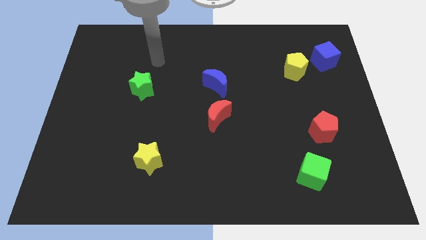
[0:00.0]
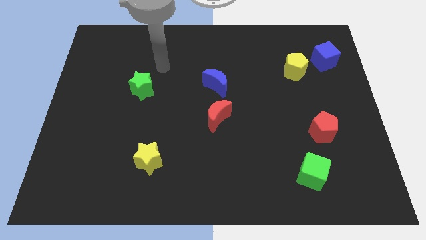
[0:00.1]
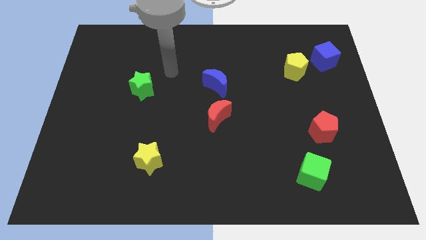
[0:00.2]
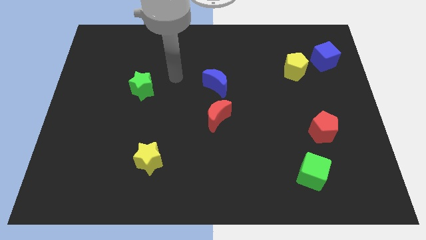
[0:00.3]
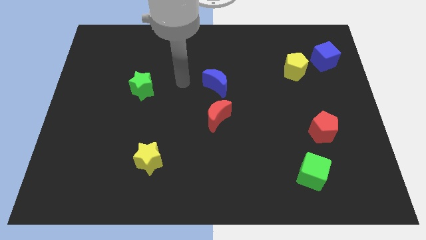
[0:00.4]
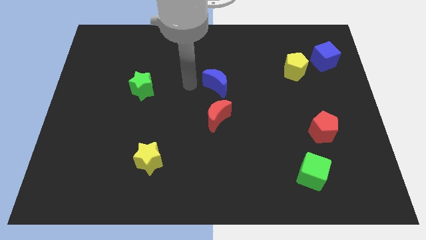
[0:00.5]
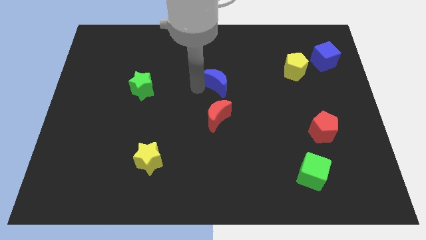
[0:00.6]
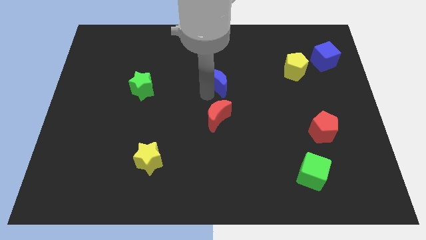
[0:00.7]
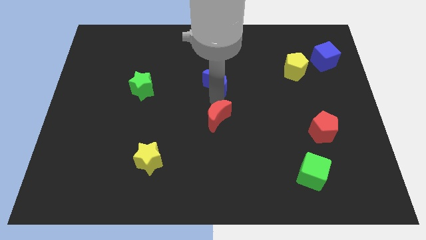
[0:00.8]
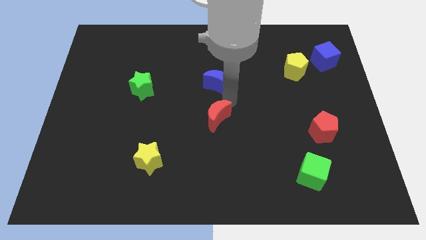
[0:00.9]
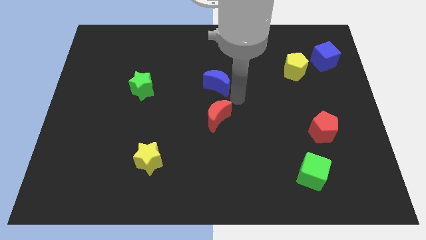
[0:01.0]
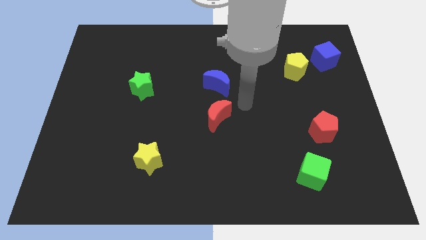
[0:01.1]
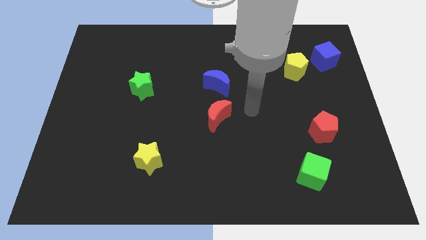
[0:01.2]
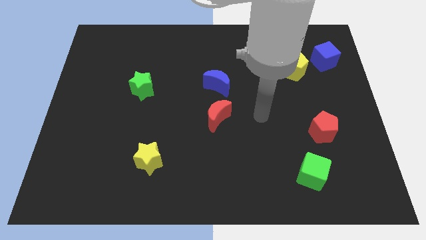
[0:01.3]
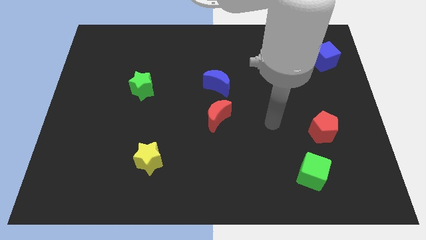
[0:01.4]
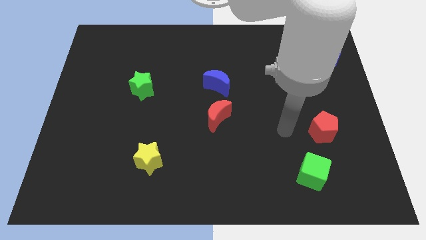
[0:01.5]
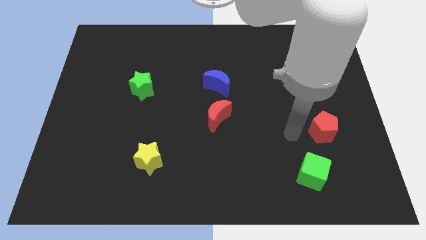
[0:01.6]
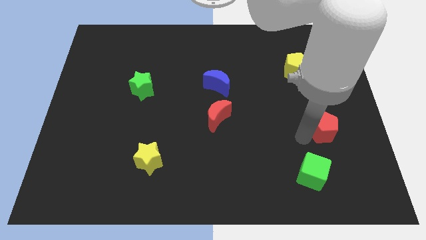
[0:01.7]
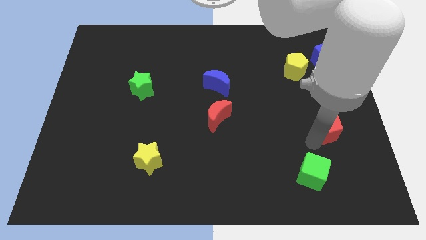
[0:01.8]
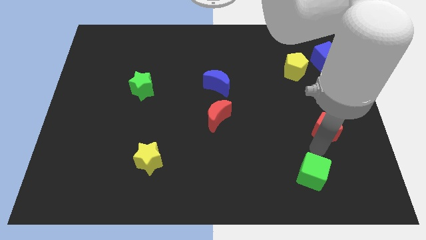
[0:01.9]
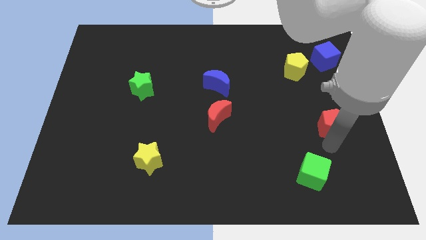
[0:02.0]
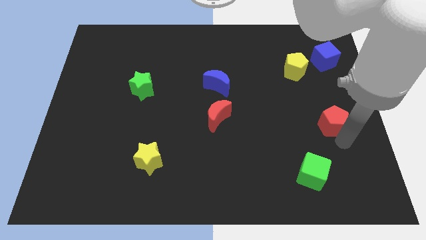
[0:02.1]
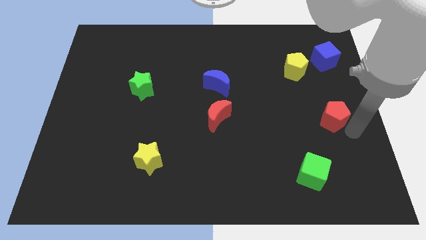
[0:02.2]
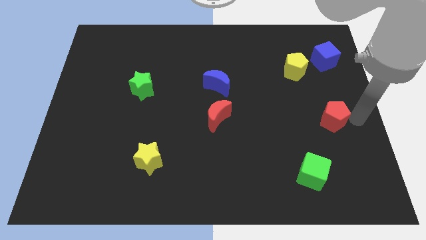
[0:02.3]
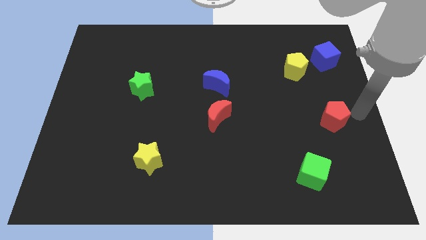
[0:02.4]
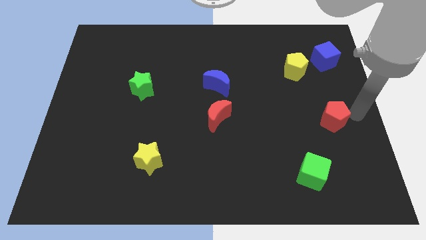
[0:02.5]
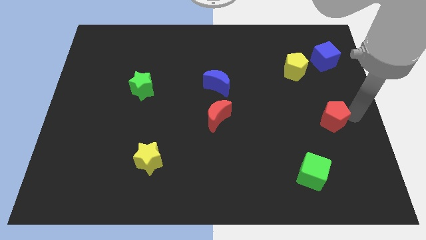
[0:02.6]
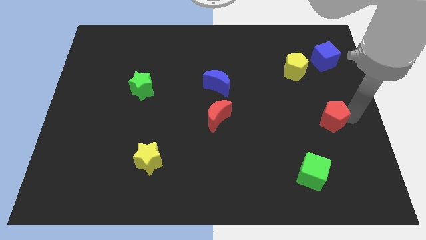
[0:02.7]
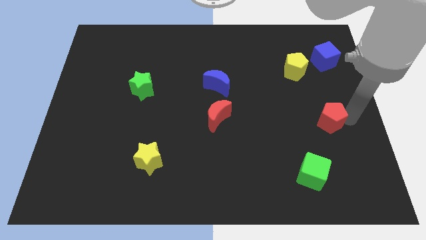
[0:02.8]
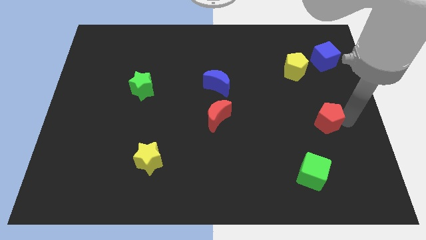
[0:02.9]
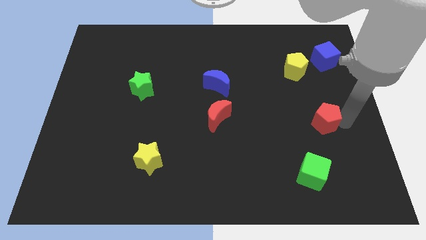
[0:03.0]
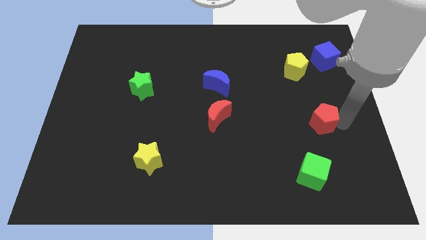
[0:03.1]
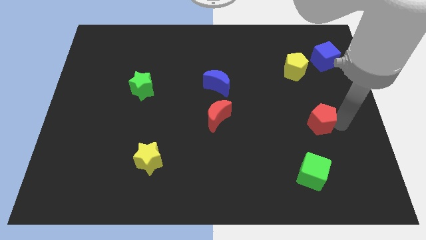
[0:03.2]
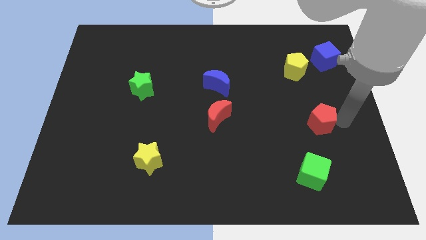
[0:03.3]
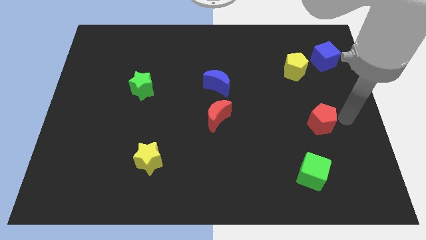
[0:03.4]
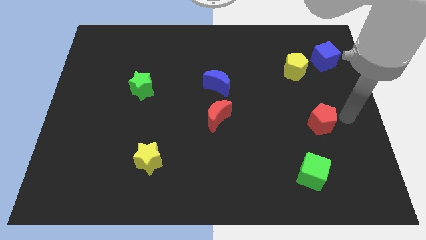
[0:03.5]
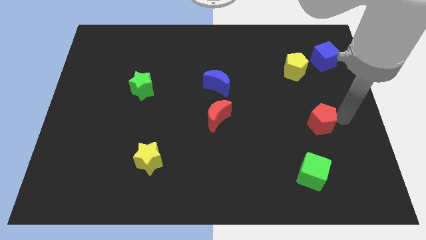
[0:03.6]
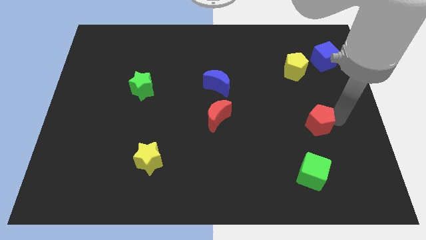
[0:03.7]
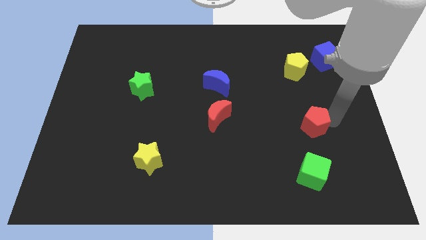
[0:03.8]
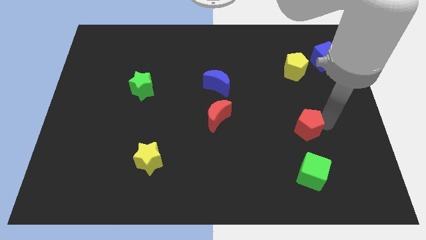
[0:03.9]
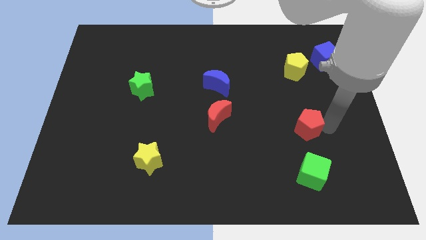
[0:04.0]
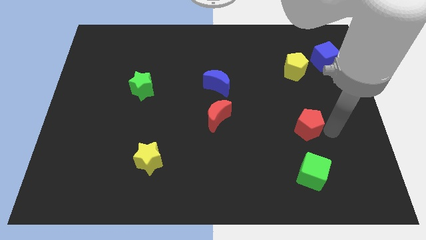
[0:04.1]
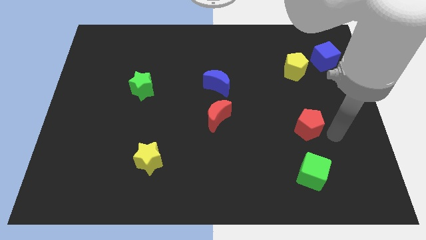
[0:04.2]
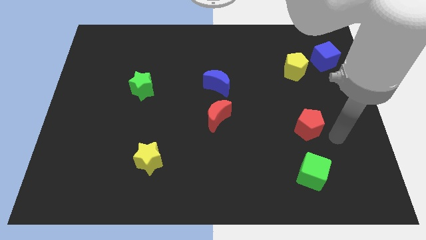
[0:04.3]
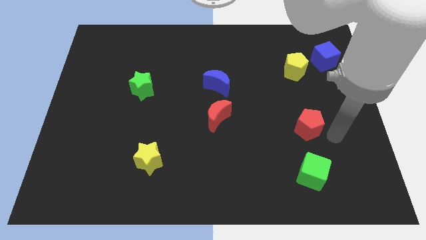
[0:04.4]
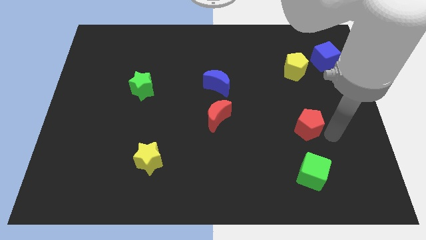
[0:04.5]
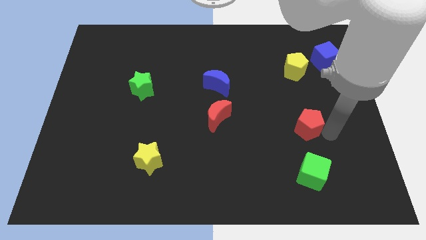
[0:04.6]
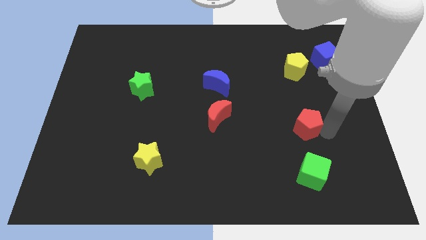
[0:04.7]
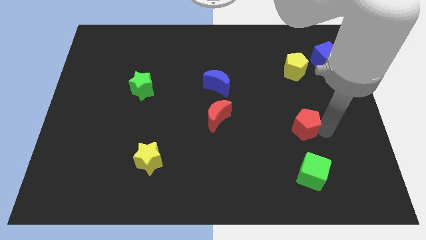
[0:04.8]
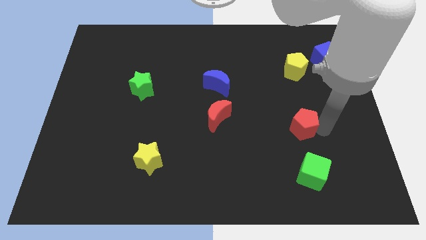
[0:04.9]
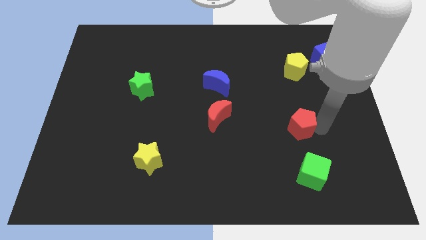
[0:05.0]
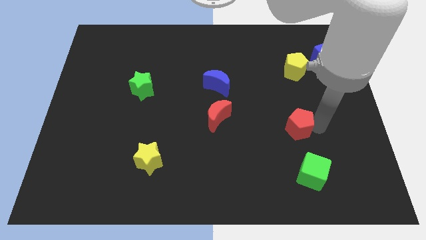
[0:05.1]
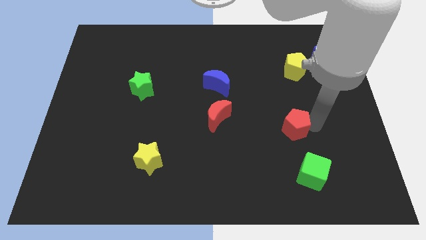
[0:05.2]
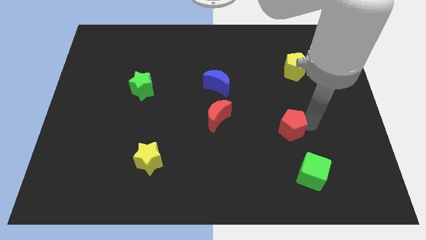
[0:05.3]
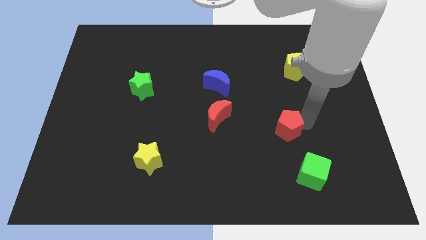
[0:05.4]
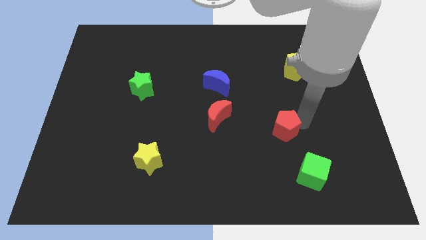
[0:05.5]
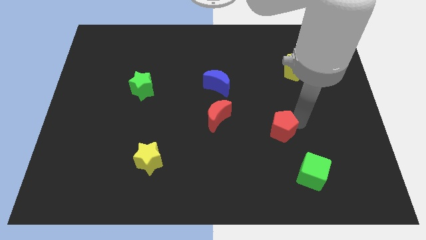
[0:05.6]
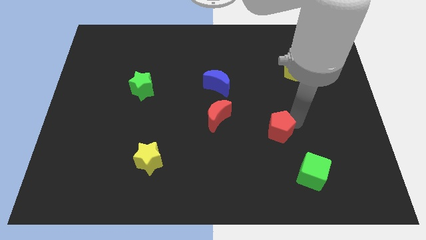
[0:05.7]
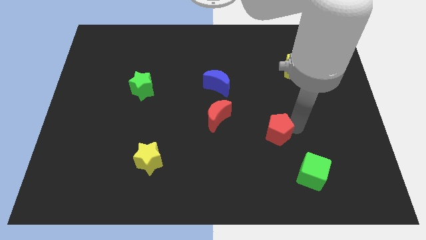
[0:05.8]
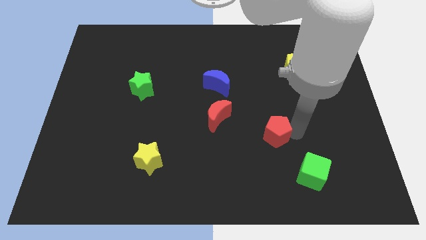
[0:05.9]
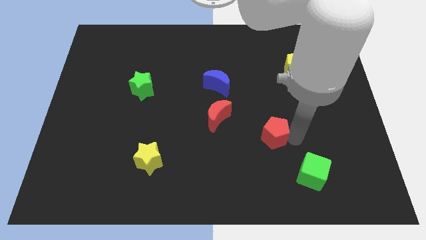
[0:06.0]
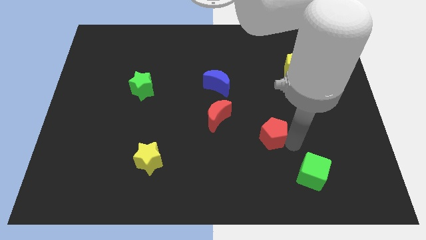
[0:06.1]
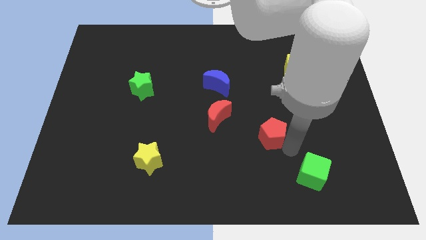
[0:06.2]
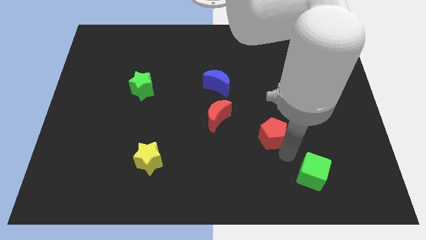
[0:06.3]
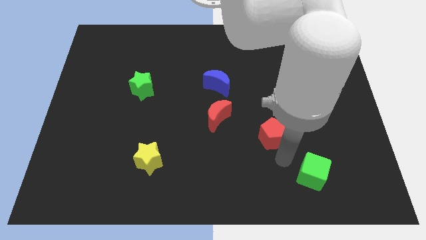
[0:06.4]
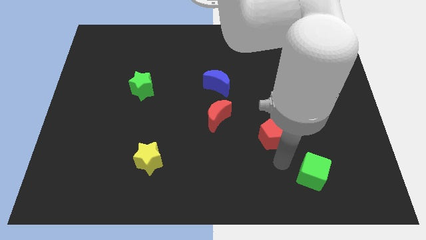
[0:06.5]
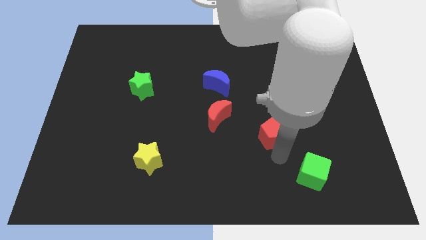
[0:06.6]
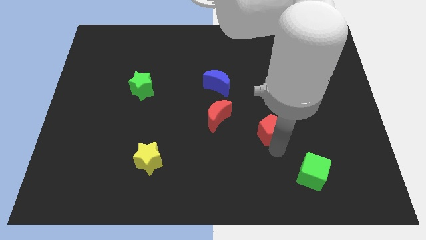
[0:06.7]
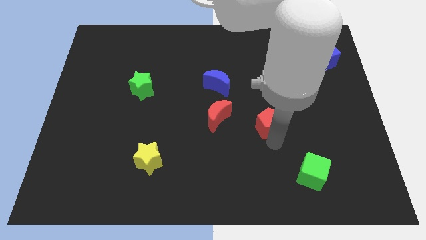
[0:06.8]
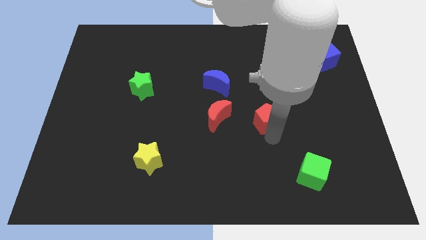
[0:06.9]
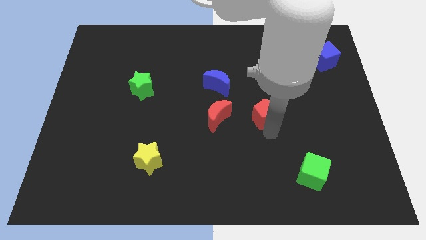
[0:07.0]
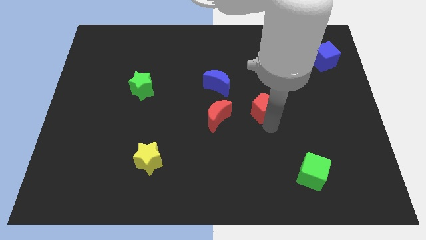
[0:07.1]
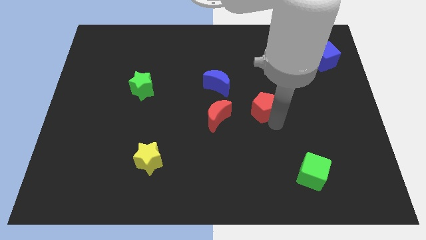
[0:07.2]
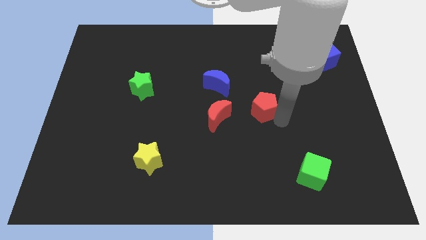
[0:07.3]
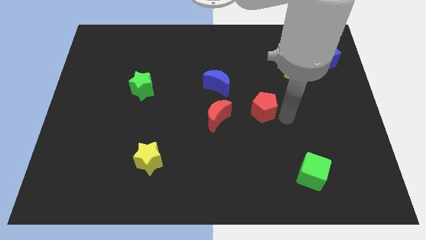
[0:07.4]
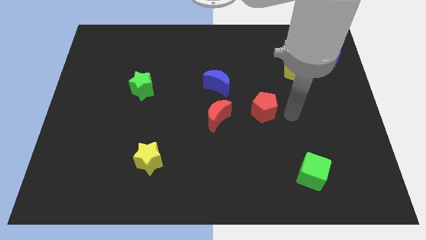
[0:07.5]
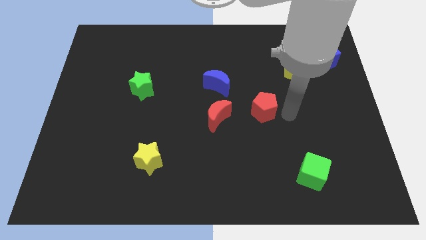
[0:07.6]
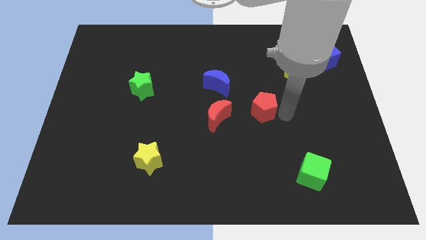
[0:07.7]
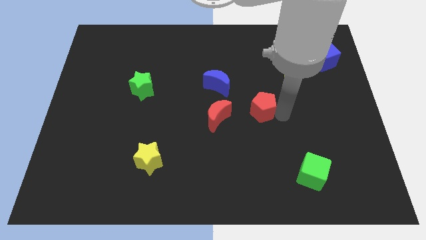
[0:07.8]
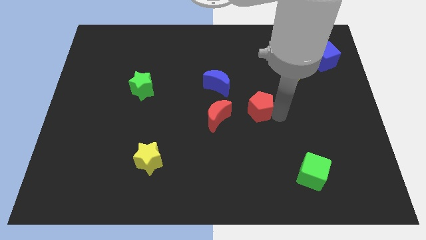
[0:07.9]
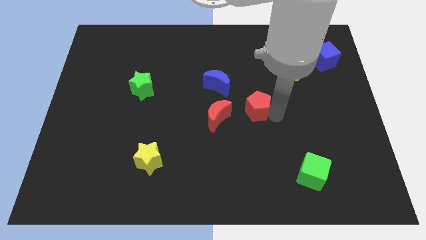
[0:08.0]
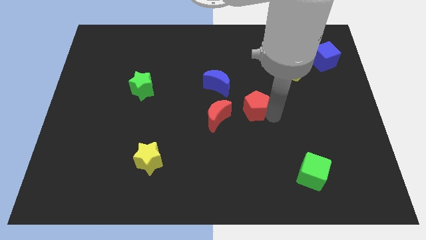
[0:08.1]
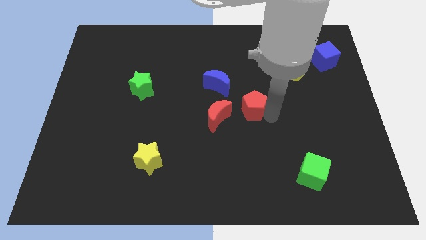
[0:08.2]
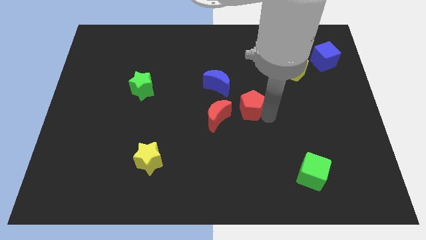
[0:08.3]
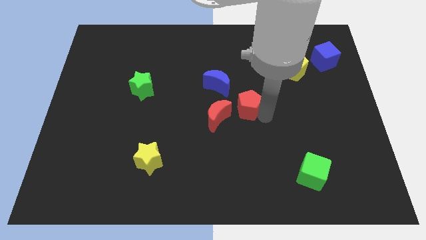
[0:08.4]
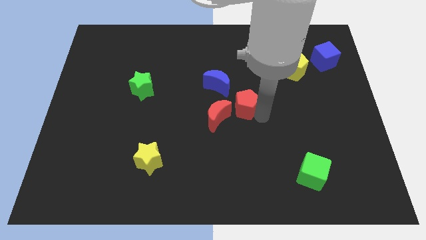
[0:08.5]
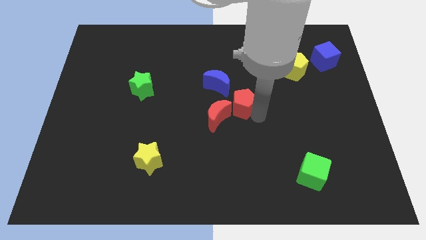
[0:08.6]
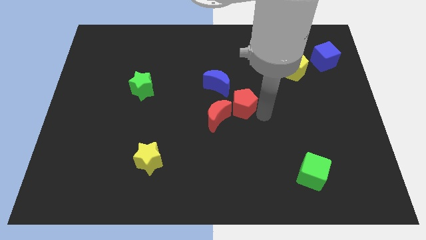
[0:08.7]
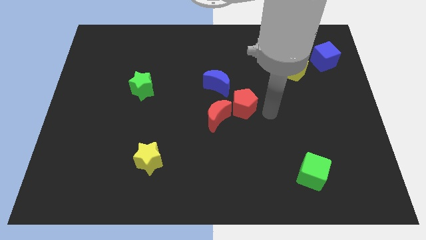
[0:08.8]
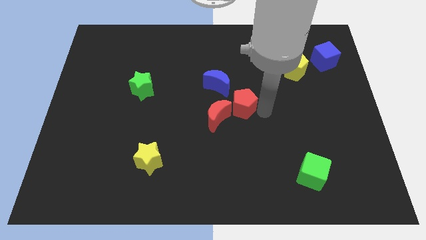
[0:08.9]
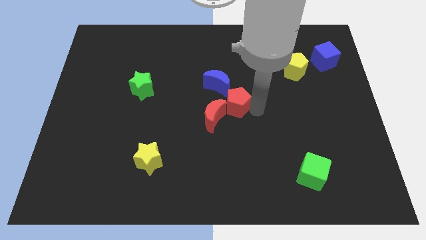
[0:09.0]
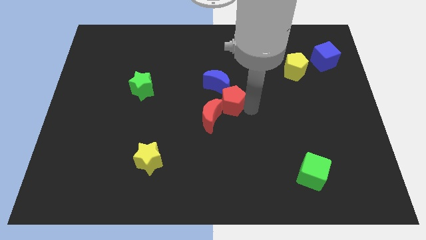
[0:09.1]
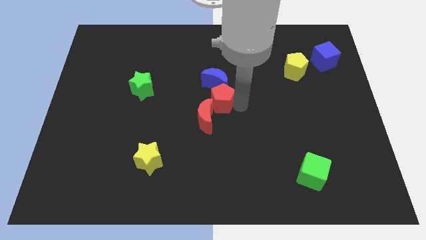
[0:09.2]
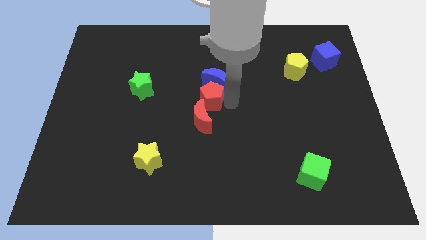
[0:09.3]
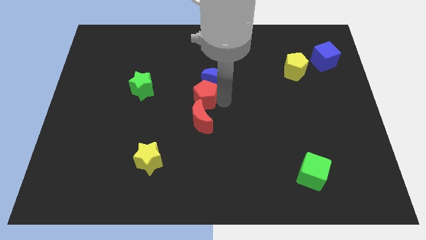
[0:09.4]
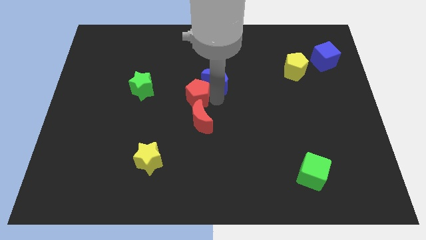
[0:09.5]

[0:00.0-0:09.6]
slide the red pentagon to the top left side of the red moon
